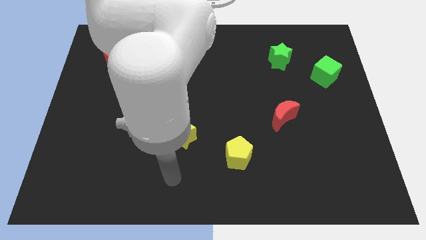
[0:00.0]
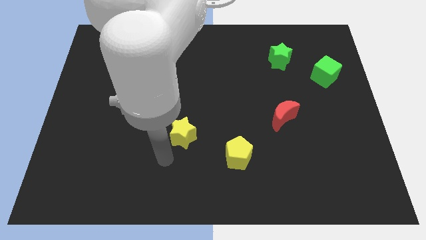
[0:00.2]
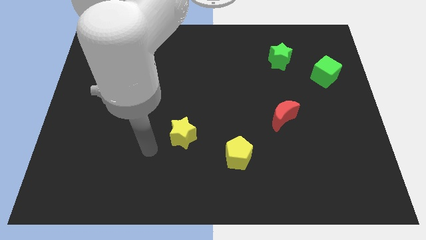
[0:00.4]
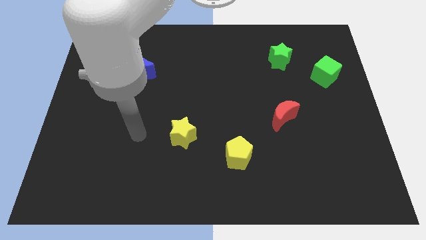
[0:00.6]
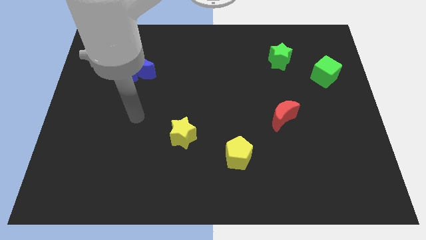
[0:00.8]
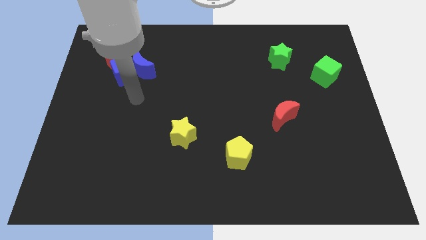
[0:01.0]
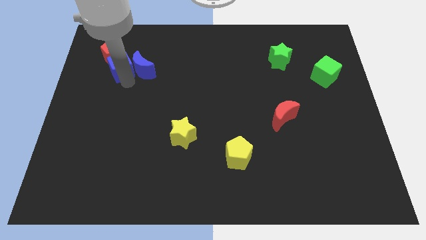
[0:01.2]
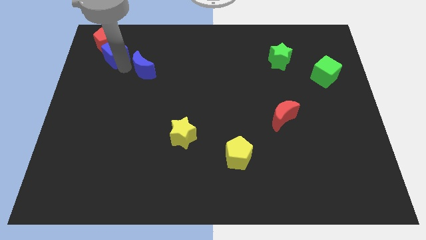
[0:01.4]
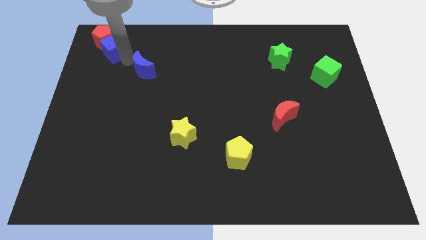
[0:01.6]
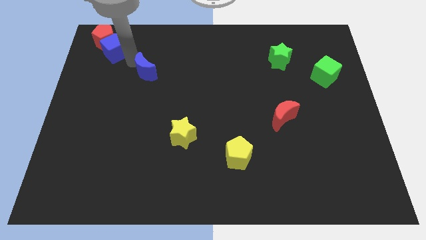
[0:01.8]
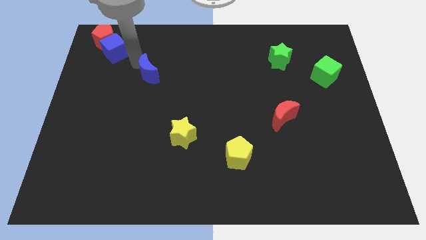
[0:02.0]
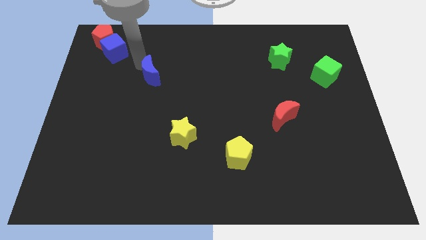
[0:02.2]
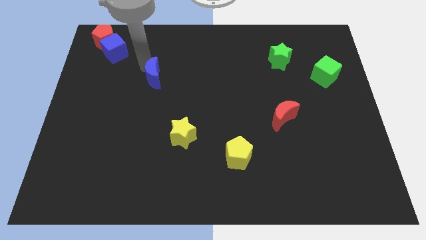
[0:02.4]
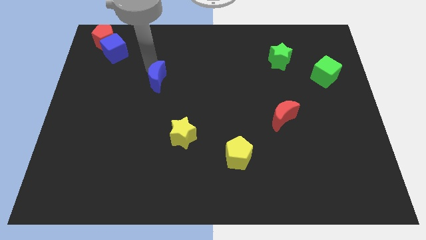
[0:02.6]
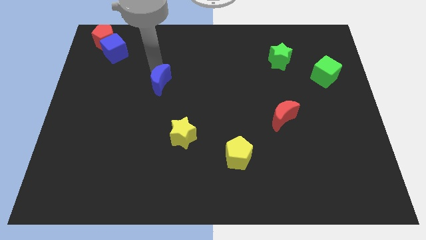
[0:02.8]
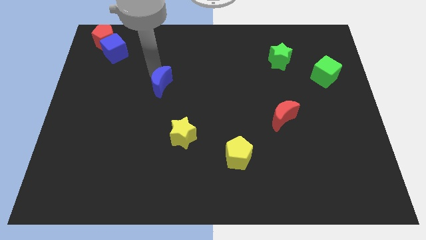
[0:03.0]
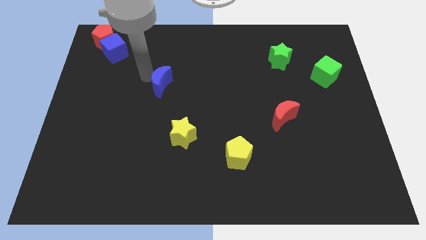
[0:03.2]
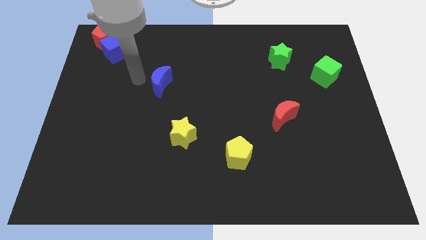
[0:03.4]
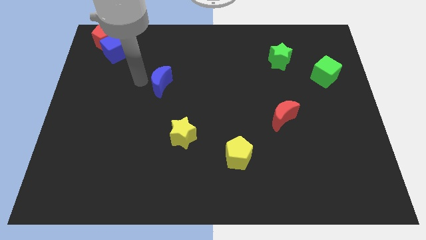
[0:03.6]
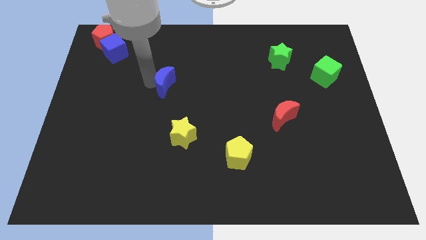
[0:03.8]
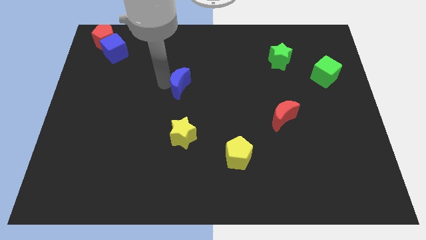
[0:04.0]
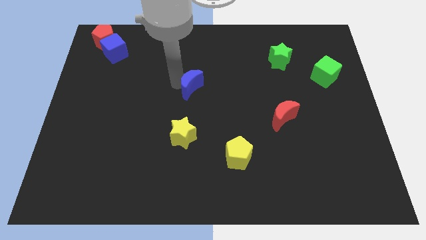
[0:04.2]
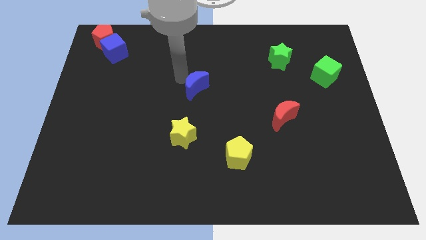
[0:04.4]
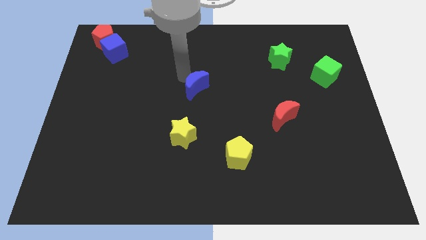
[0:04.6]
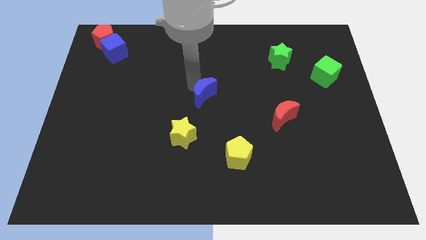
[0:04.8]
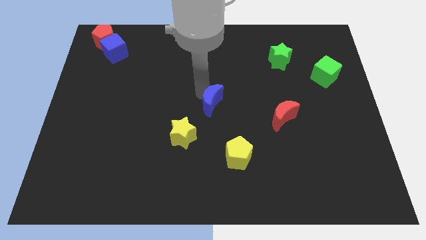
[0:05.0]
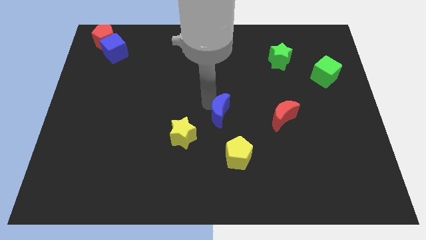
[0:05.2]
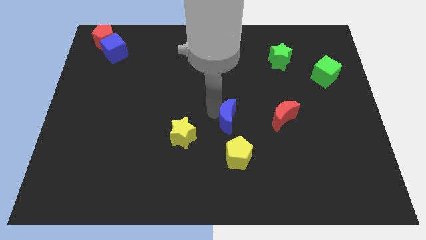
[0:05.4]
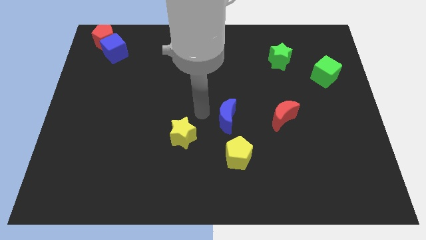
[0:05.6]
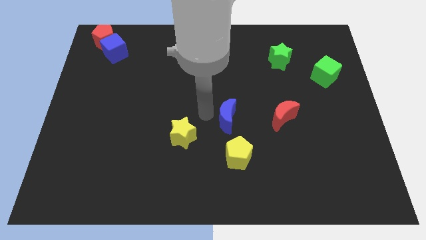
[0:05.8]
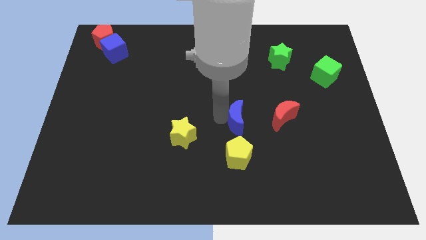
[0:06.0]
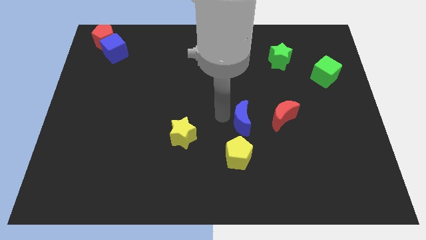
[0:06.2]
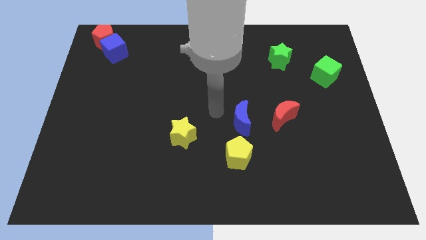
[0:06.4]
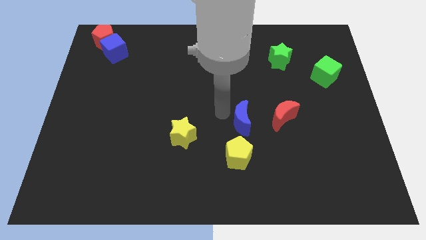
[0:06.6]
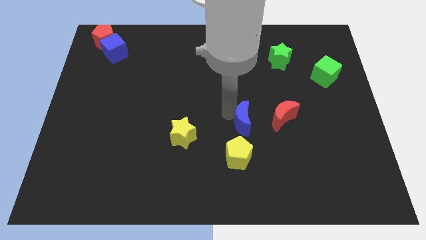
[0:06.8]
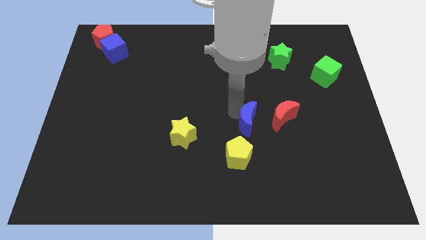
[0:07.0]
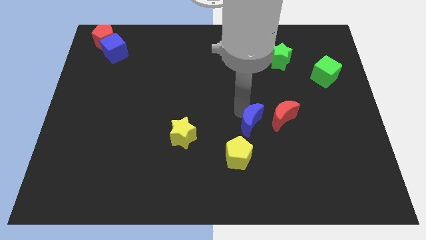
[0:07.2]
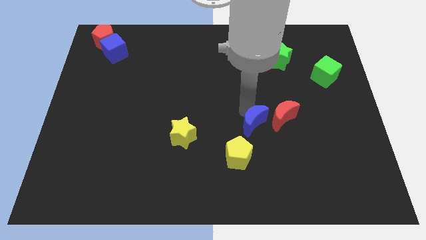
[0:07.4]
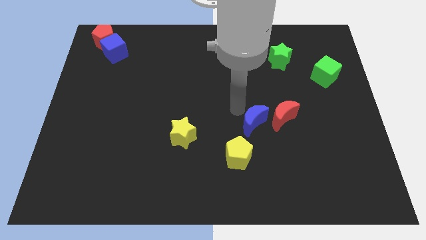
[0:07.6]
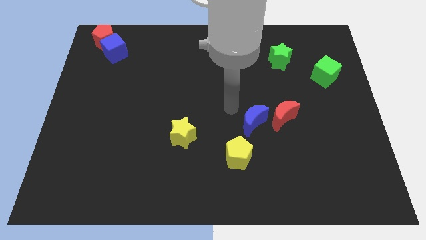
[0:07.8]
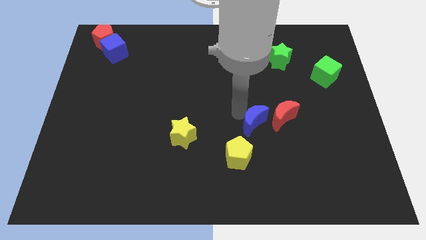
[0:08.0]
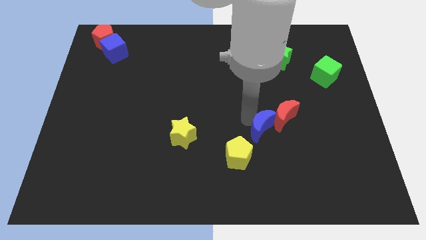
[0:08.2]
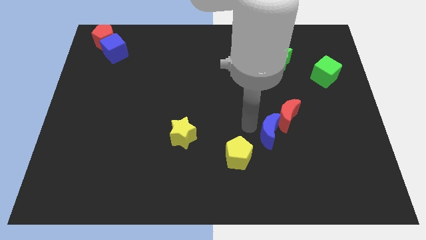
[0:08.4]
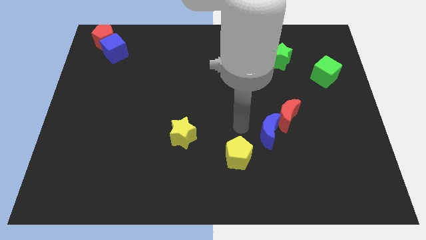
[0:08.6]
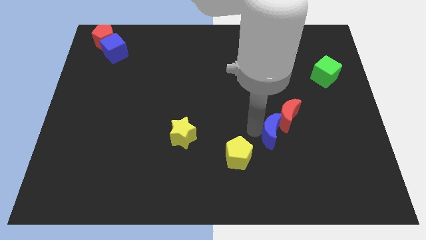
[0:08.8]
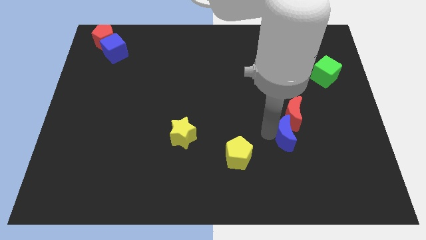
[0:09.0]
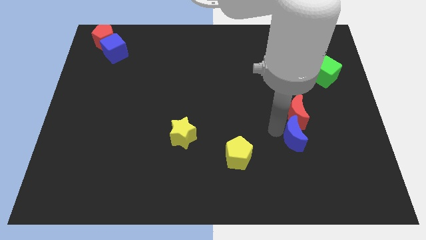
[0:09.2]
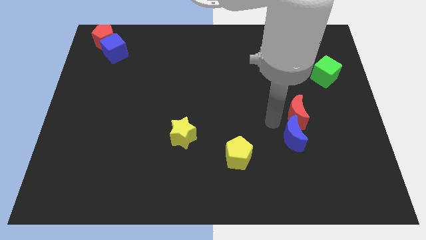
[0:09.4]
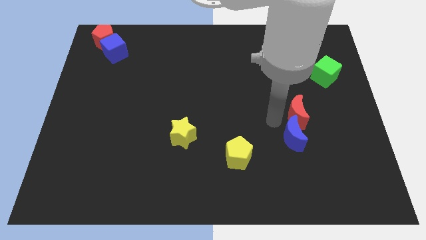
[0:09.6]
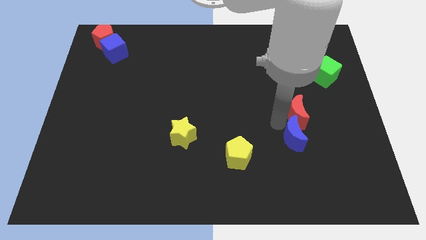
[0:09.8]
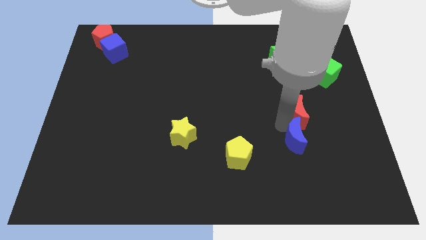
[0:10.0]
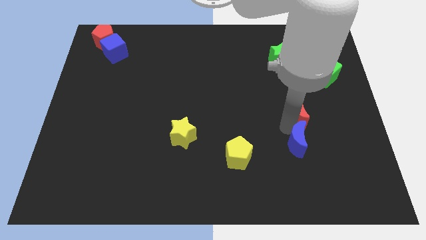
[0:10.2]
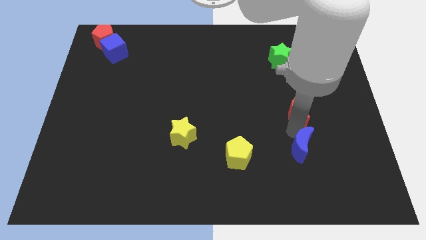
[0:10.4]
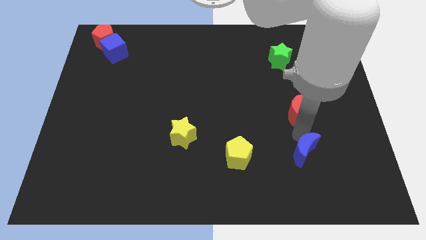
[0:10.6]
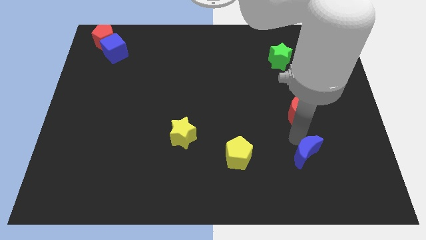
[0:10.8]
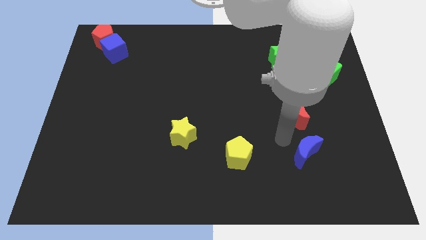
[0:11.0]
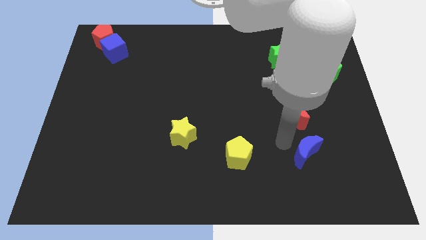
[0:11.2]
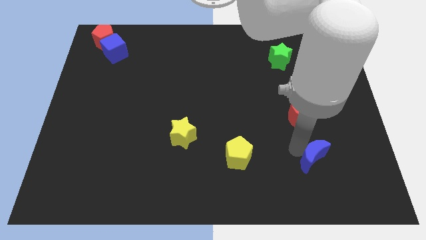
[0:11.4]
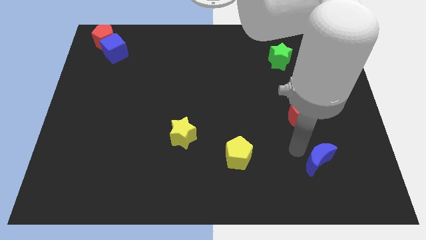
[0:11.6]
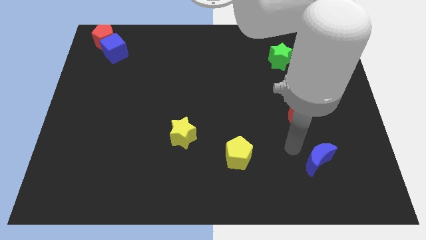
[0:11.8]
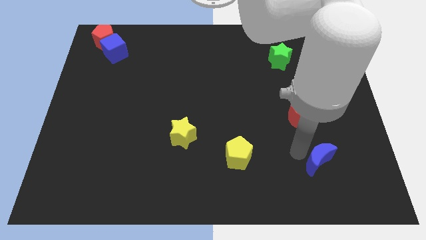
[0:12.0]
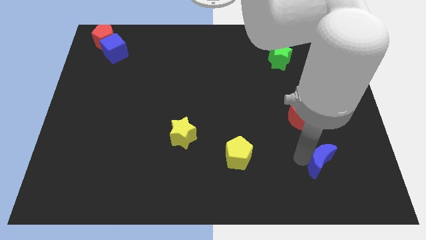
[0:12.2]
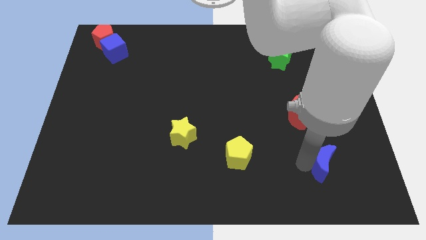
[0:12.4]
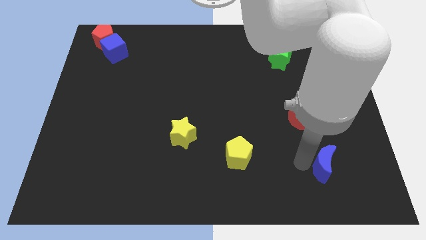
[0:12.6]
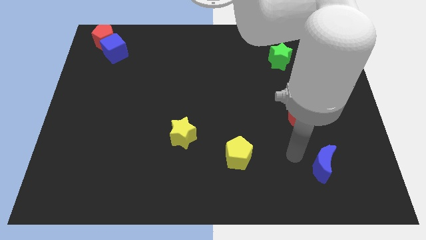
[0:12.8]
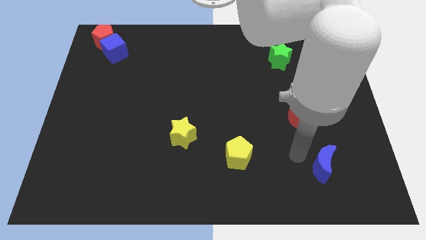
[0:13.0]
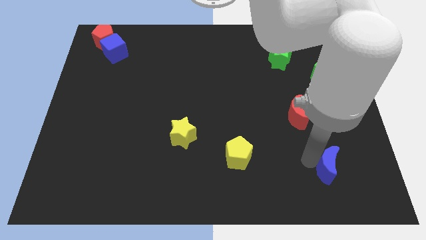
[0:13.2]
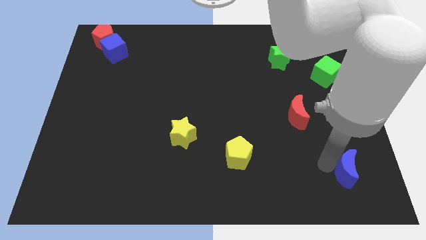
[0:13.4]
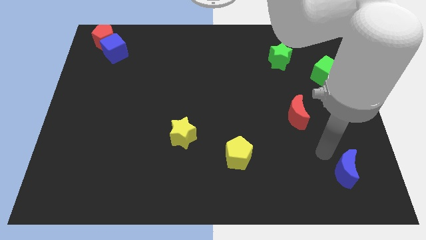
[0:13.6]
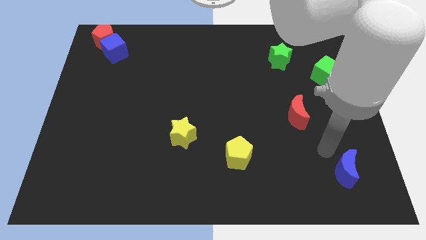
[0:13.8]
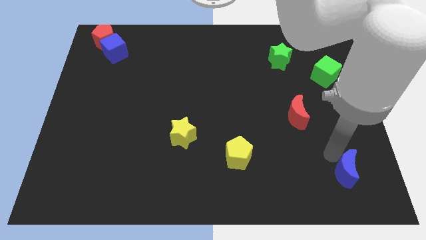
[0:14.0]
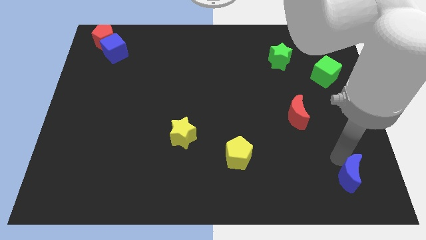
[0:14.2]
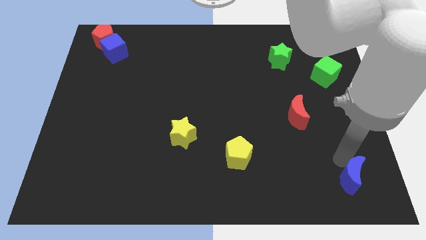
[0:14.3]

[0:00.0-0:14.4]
put the blue moon to the bottom right of the board
